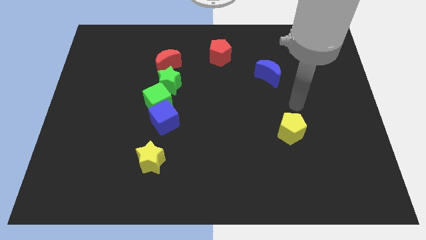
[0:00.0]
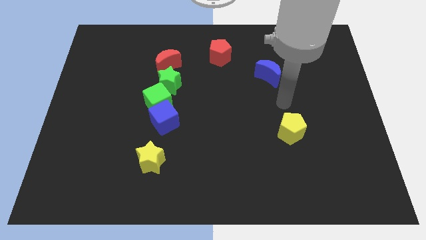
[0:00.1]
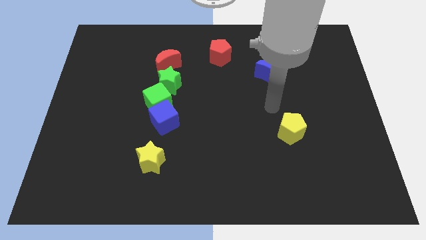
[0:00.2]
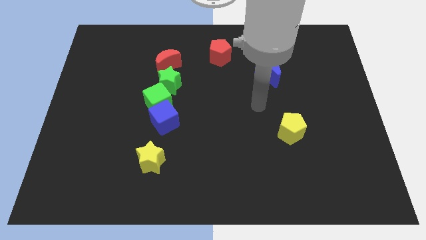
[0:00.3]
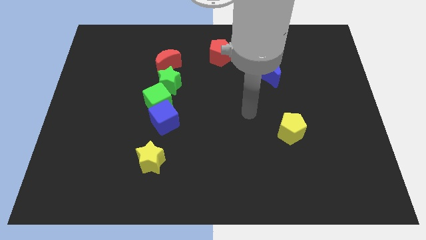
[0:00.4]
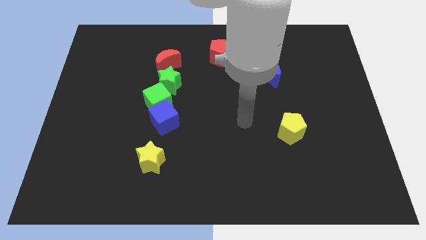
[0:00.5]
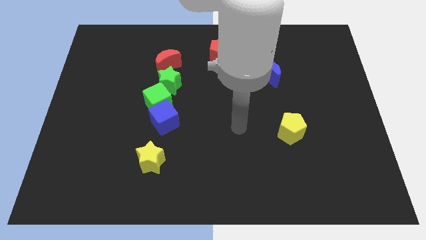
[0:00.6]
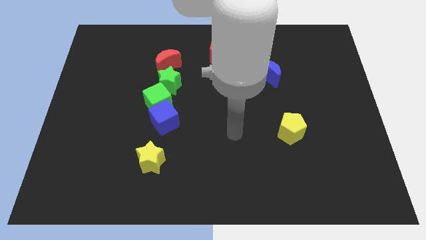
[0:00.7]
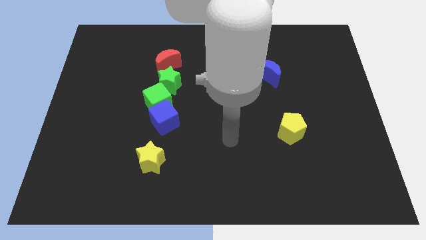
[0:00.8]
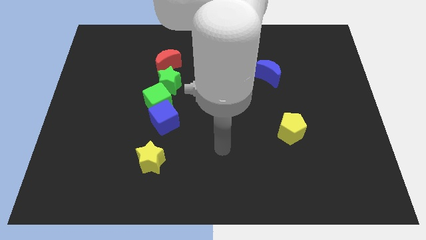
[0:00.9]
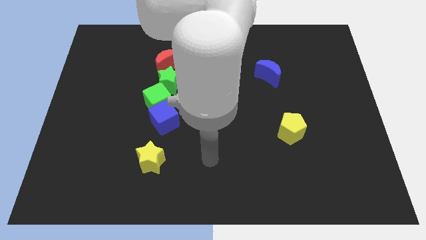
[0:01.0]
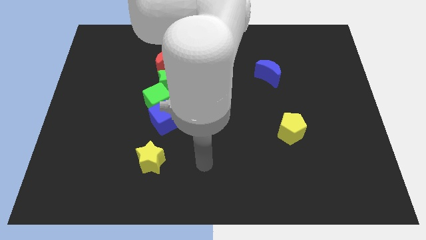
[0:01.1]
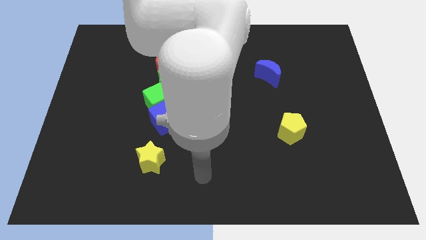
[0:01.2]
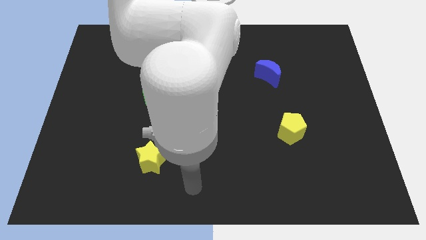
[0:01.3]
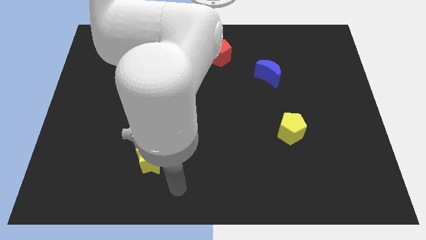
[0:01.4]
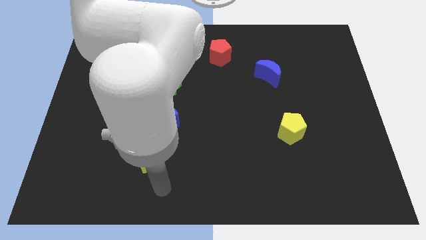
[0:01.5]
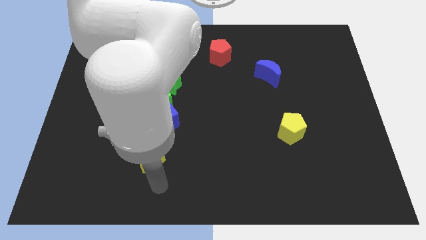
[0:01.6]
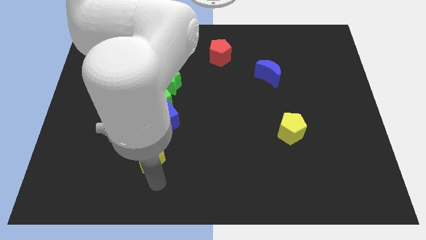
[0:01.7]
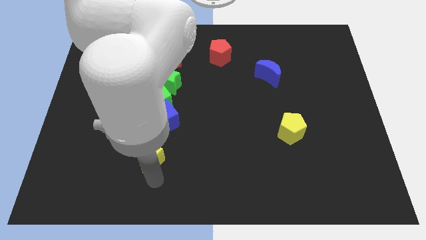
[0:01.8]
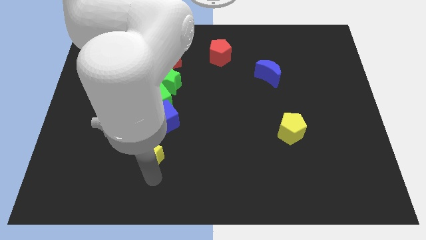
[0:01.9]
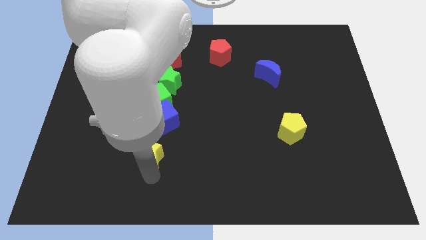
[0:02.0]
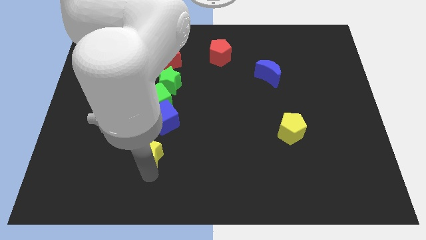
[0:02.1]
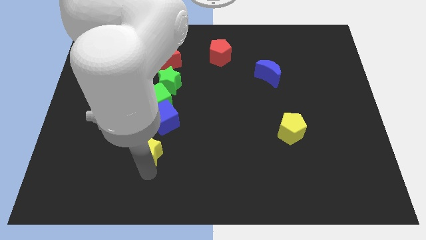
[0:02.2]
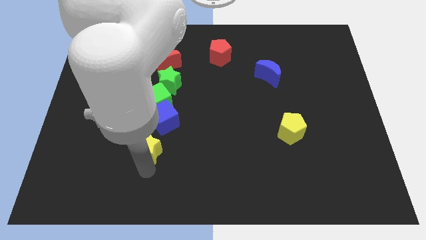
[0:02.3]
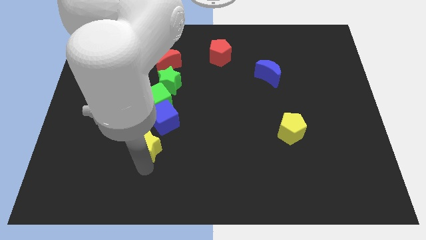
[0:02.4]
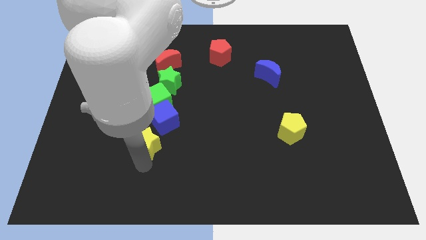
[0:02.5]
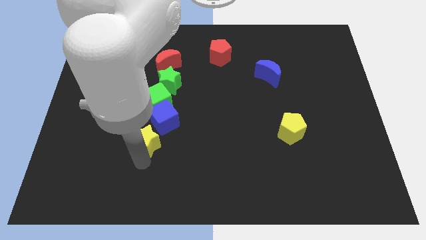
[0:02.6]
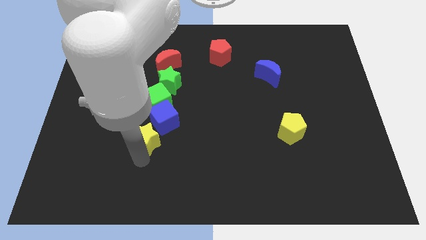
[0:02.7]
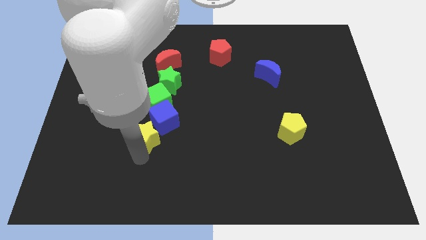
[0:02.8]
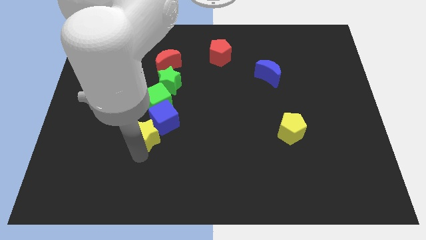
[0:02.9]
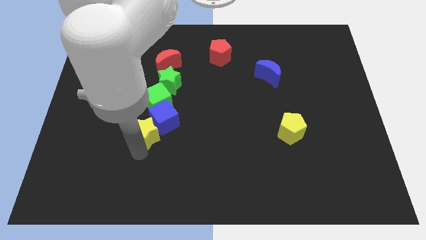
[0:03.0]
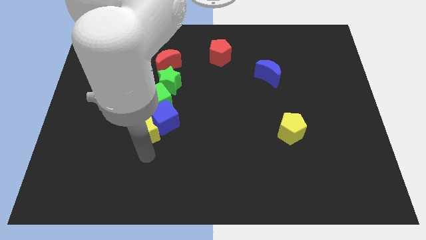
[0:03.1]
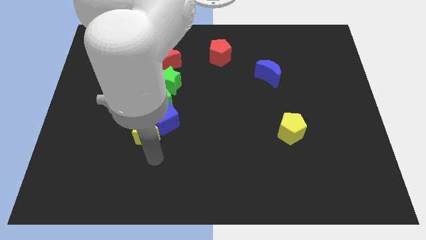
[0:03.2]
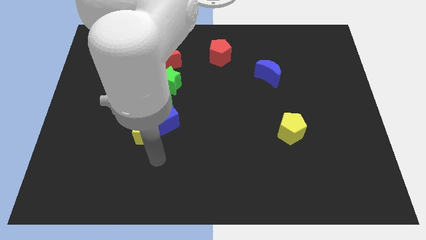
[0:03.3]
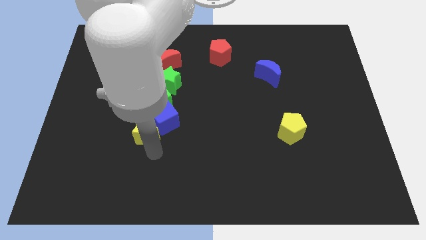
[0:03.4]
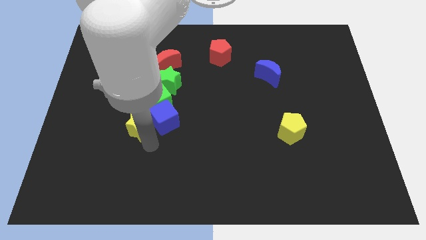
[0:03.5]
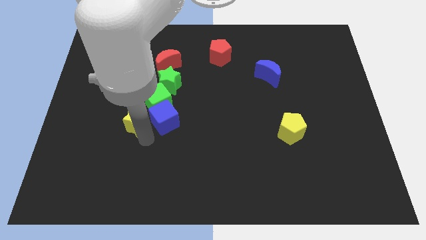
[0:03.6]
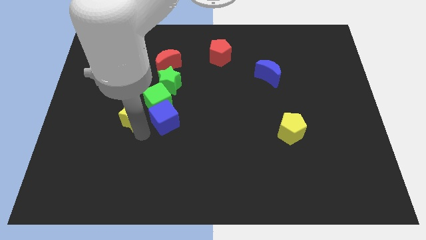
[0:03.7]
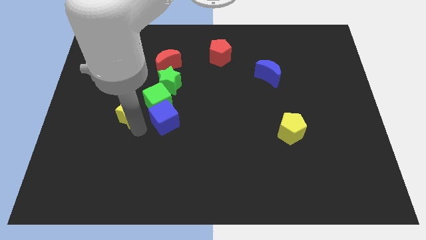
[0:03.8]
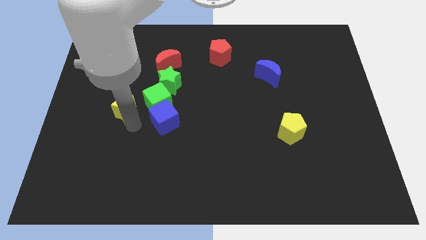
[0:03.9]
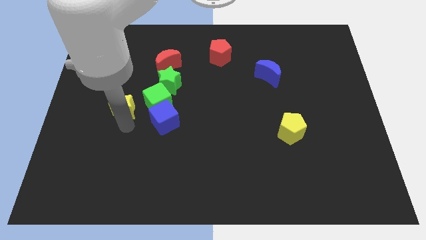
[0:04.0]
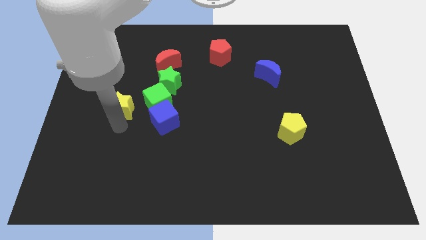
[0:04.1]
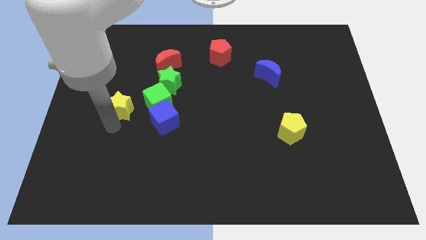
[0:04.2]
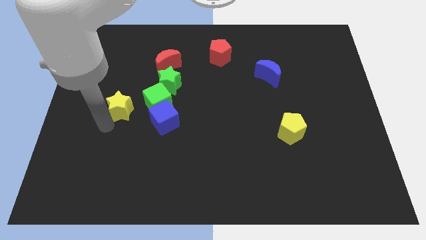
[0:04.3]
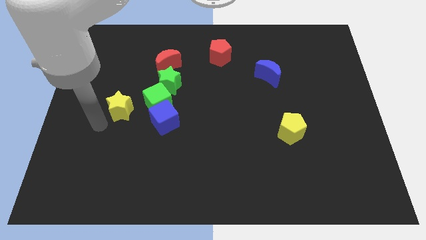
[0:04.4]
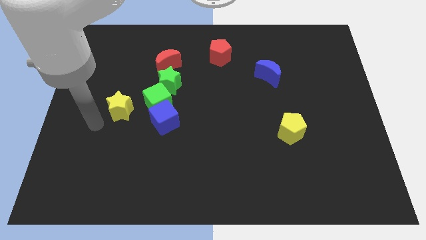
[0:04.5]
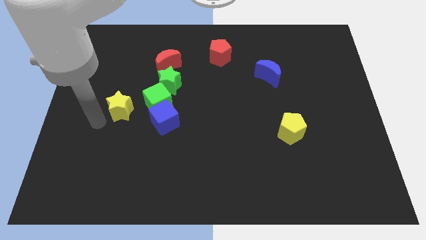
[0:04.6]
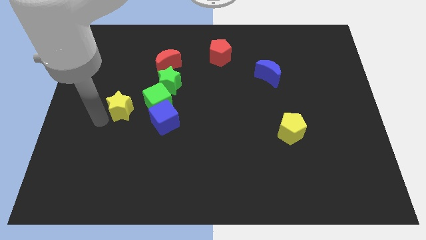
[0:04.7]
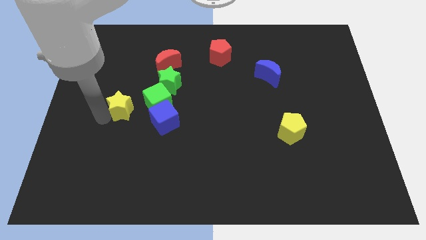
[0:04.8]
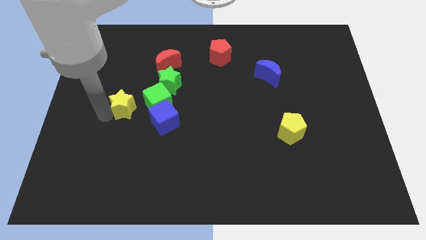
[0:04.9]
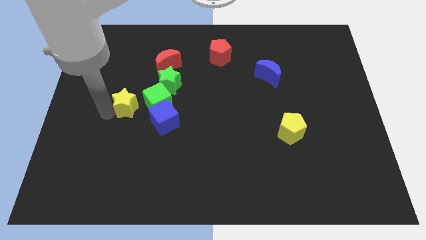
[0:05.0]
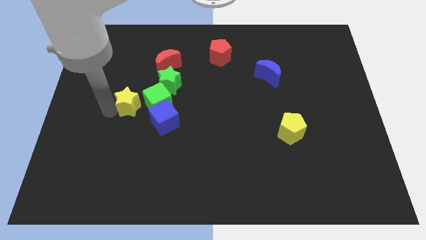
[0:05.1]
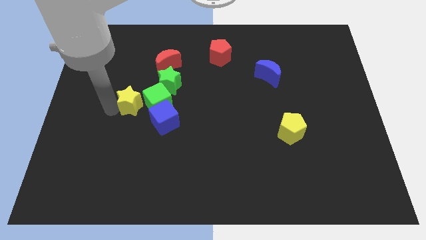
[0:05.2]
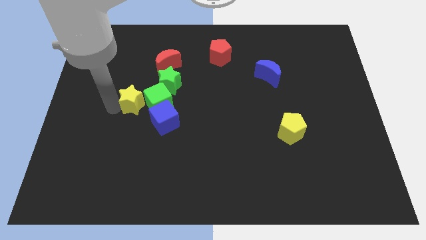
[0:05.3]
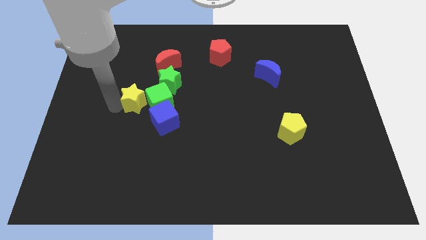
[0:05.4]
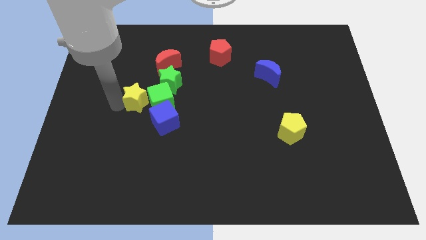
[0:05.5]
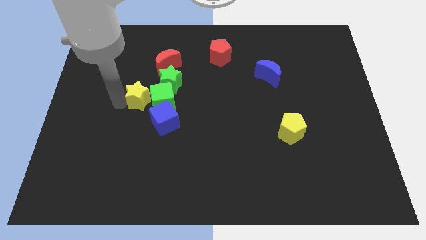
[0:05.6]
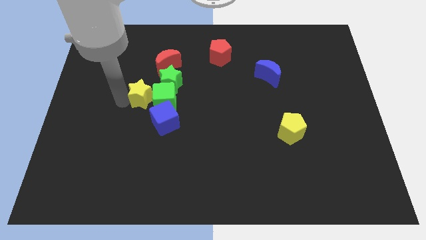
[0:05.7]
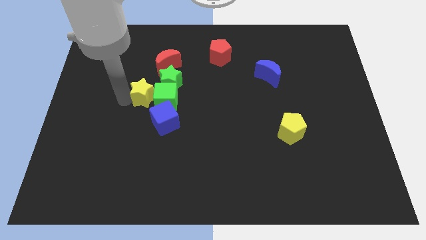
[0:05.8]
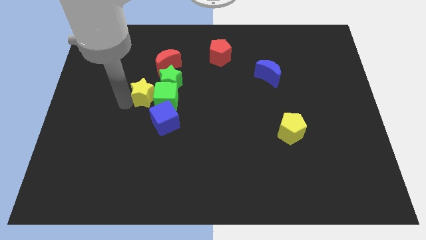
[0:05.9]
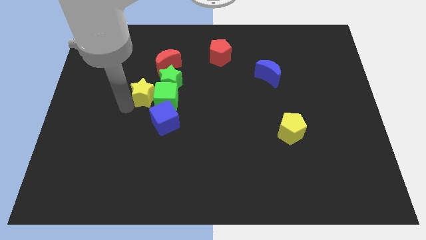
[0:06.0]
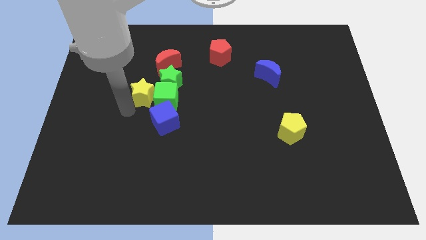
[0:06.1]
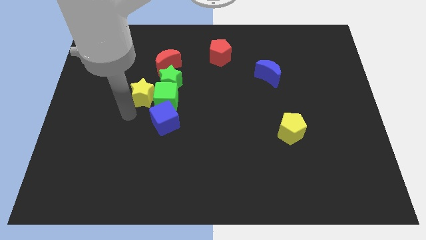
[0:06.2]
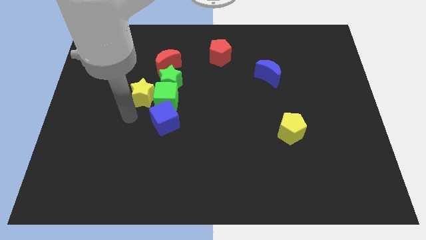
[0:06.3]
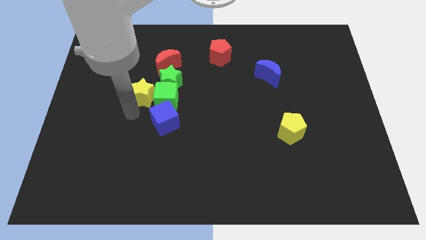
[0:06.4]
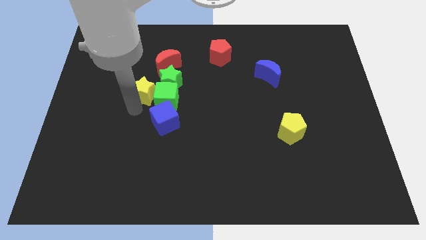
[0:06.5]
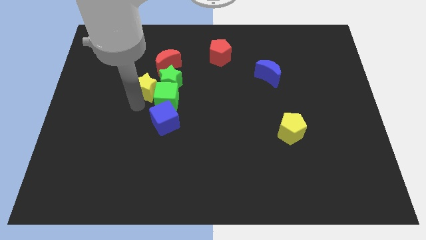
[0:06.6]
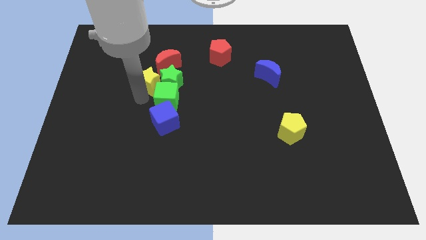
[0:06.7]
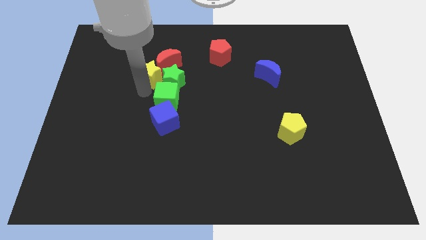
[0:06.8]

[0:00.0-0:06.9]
slide the yellow star to the red moon
